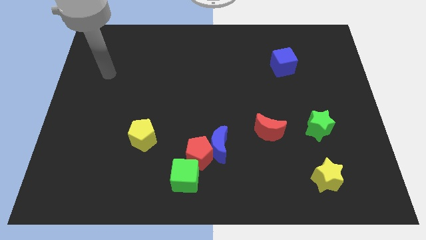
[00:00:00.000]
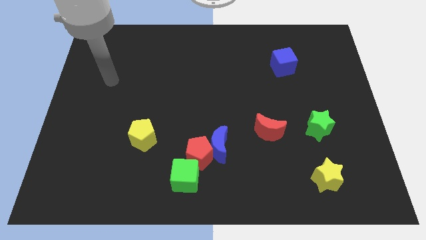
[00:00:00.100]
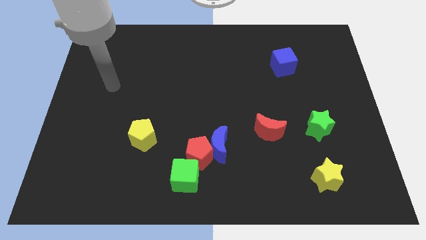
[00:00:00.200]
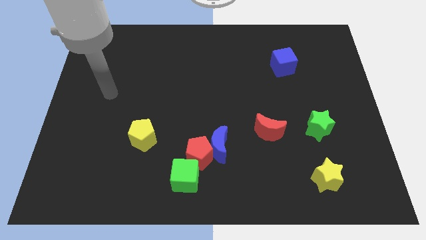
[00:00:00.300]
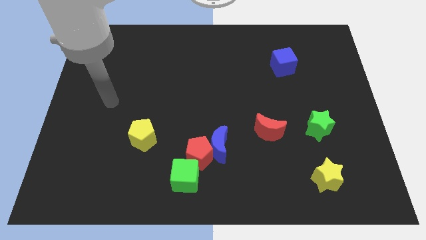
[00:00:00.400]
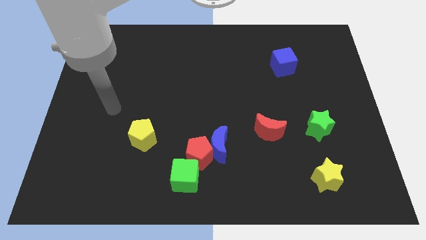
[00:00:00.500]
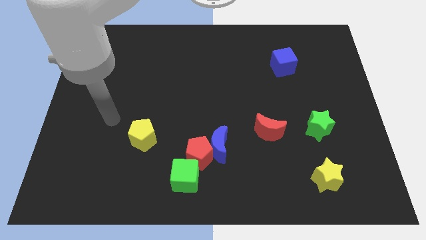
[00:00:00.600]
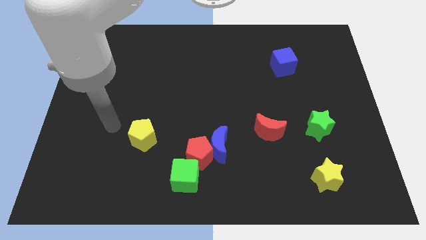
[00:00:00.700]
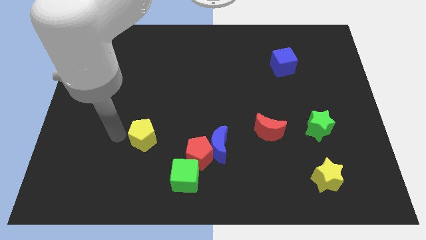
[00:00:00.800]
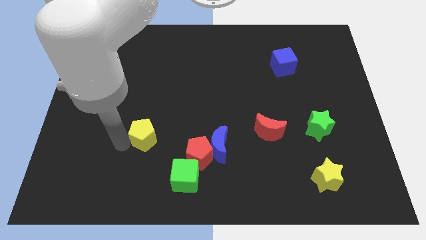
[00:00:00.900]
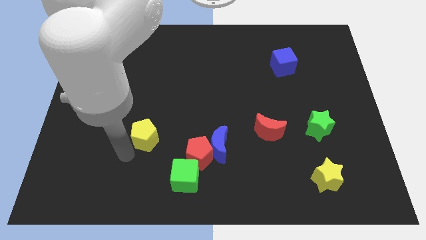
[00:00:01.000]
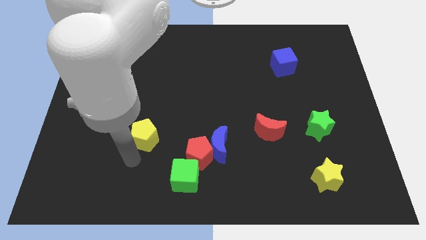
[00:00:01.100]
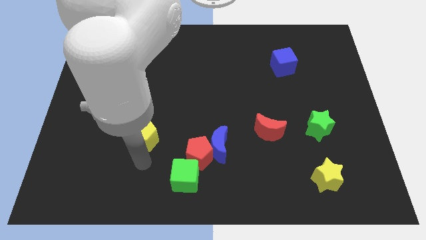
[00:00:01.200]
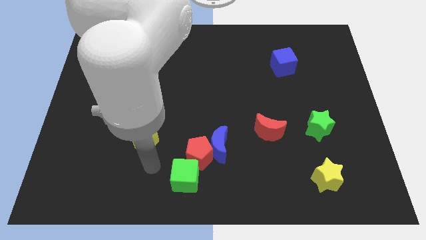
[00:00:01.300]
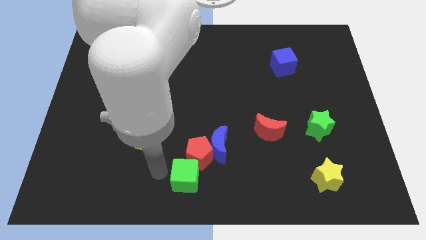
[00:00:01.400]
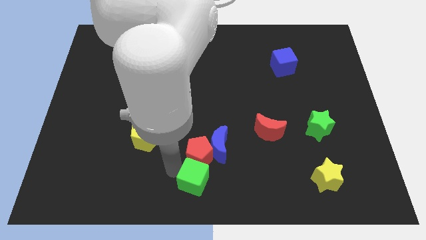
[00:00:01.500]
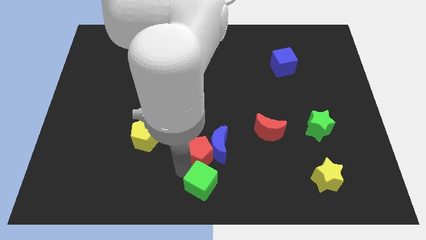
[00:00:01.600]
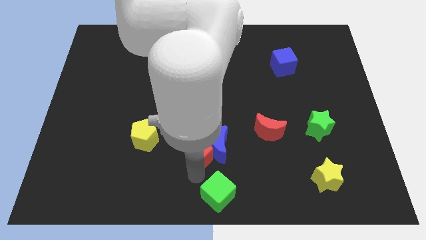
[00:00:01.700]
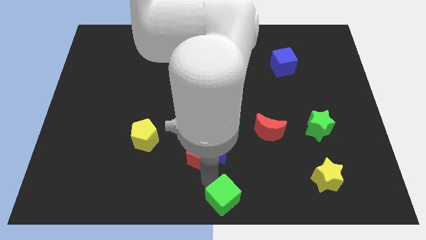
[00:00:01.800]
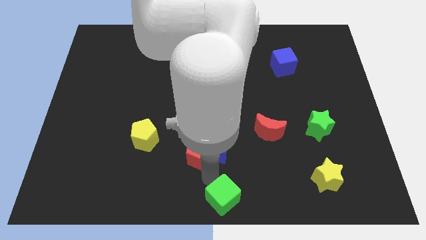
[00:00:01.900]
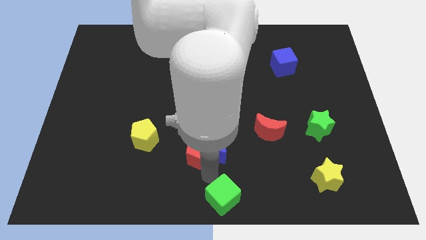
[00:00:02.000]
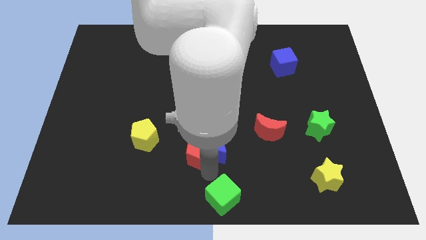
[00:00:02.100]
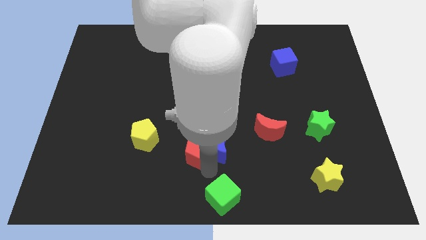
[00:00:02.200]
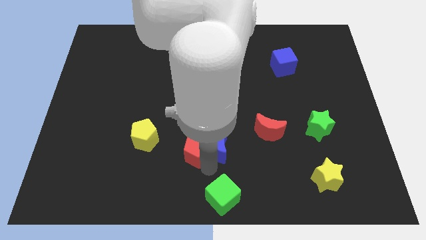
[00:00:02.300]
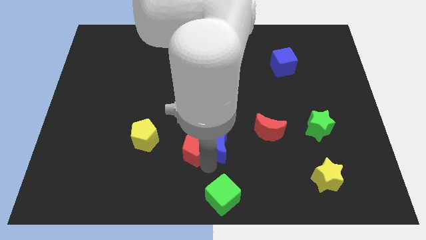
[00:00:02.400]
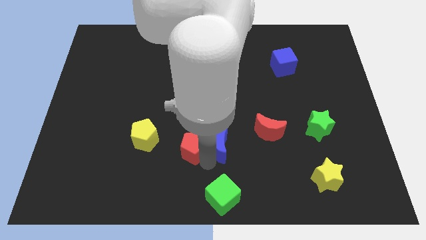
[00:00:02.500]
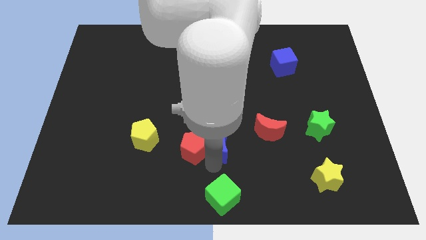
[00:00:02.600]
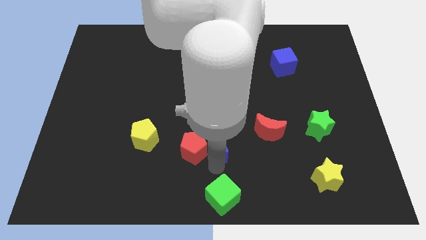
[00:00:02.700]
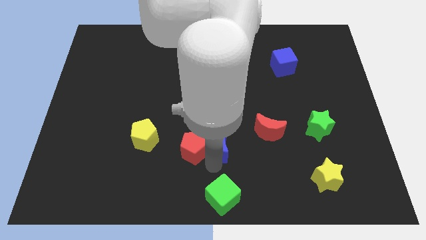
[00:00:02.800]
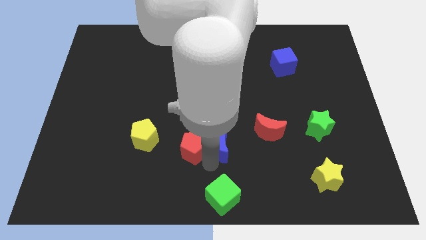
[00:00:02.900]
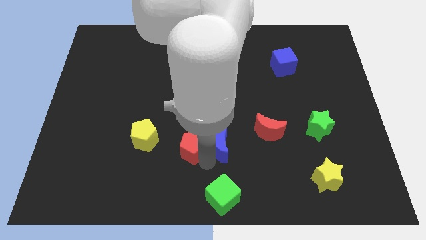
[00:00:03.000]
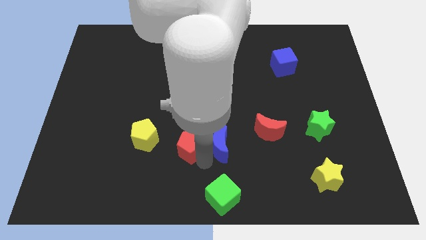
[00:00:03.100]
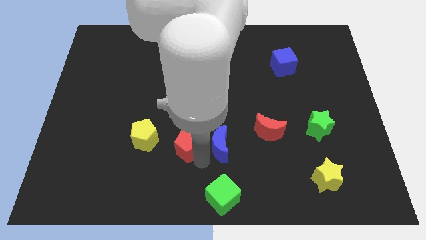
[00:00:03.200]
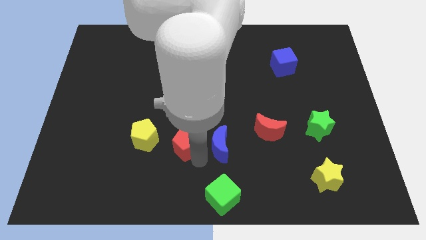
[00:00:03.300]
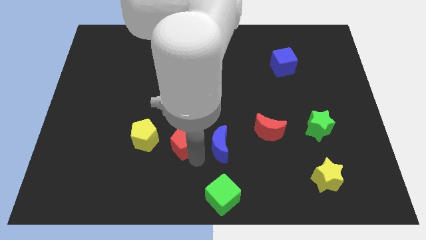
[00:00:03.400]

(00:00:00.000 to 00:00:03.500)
pull the red pentagon apart from the blue moon and green cube

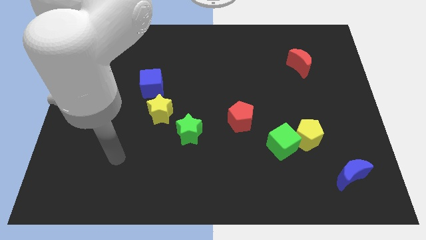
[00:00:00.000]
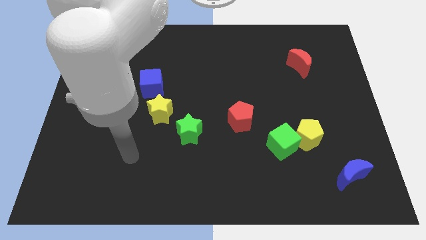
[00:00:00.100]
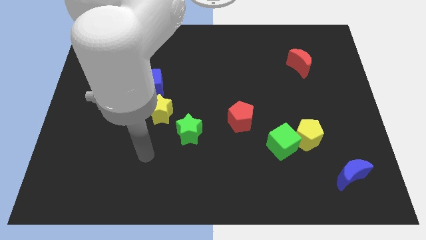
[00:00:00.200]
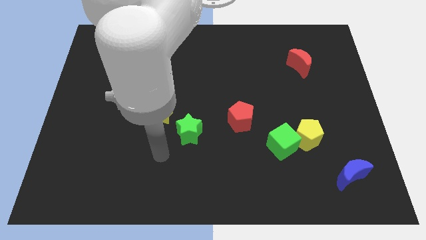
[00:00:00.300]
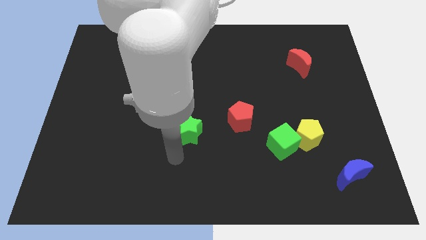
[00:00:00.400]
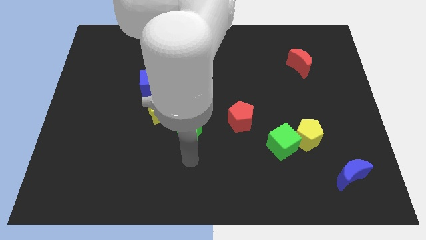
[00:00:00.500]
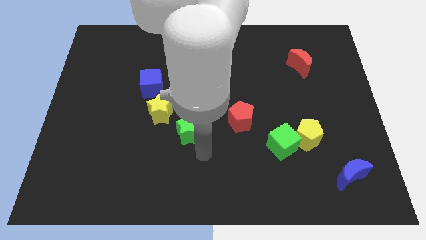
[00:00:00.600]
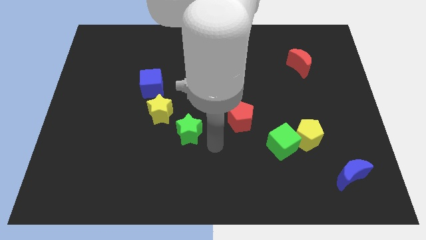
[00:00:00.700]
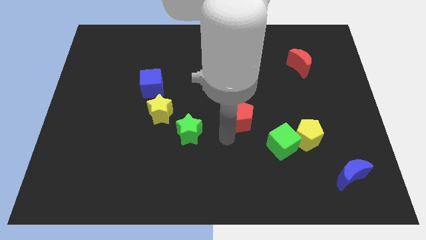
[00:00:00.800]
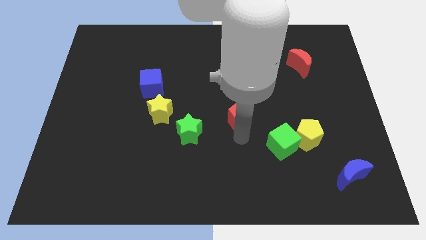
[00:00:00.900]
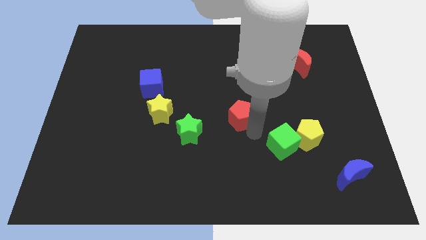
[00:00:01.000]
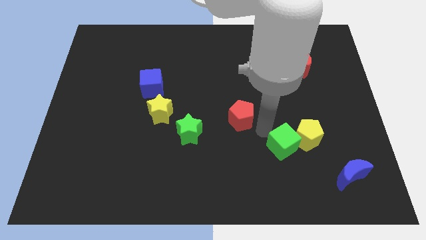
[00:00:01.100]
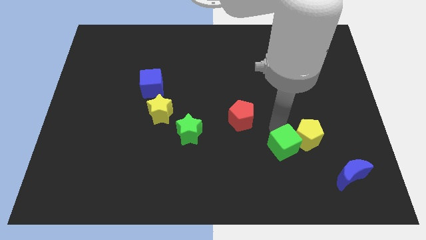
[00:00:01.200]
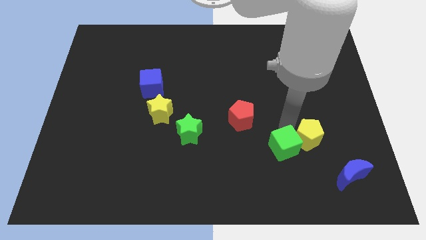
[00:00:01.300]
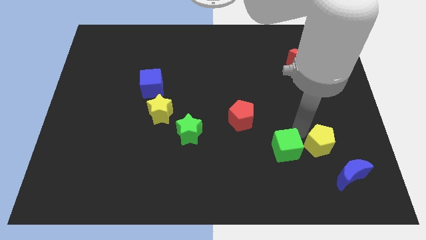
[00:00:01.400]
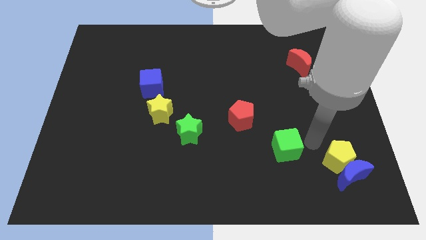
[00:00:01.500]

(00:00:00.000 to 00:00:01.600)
move the green cube away from the yellow pentagon

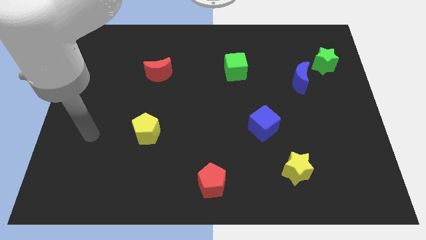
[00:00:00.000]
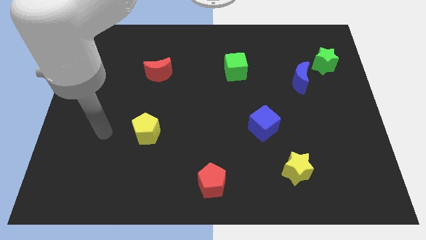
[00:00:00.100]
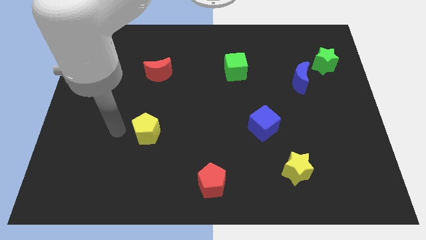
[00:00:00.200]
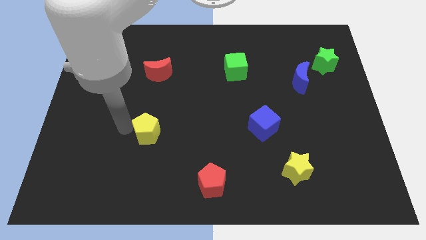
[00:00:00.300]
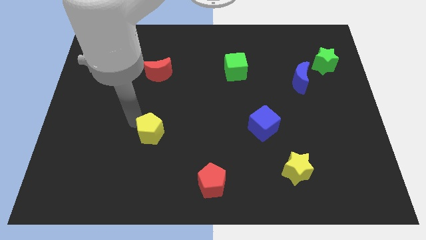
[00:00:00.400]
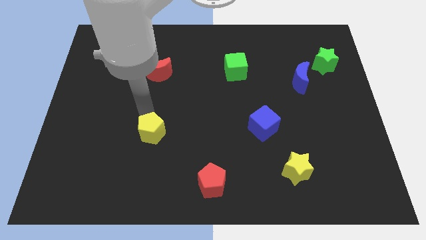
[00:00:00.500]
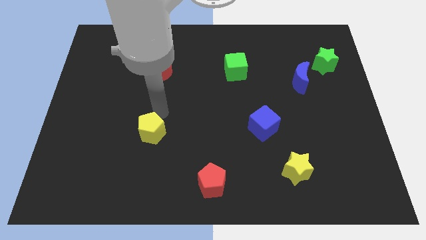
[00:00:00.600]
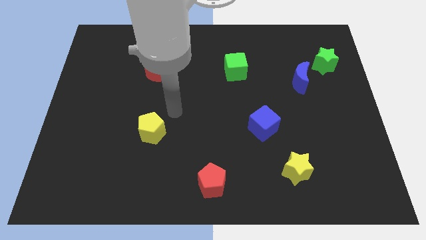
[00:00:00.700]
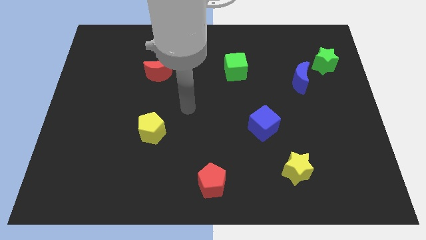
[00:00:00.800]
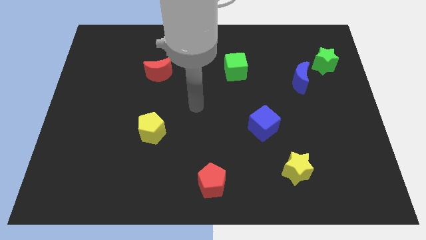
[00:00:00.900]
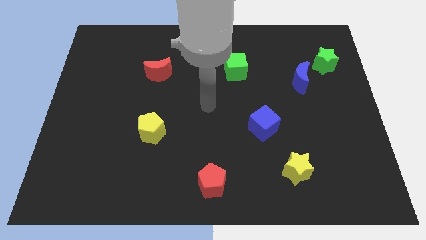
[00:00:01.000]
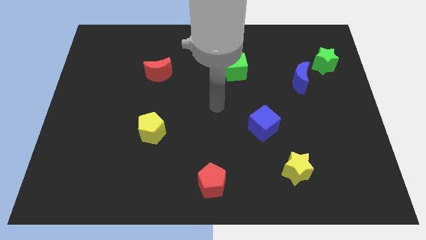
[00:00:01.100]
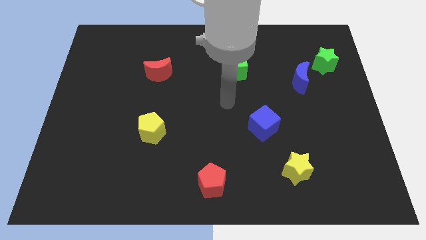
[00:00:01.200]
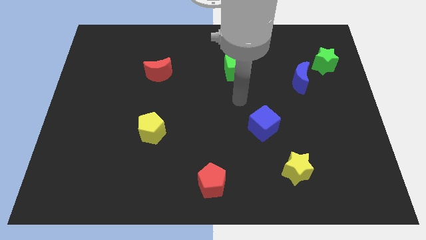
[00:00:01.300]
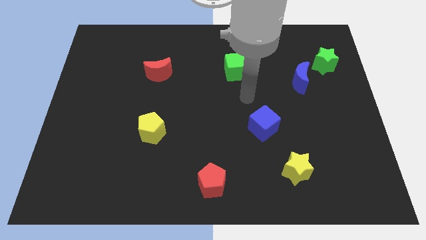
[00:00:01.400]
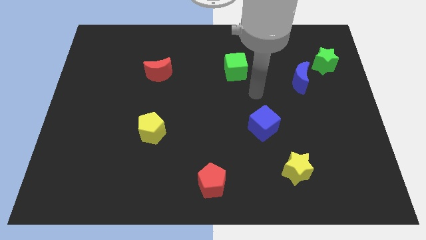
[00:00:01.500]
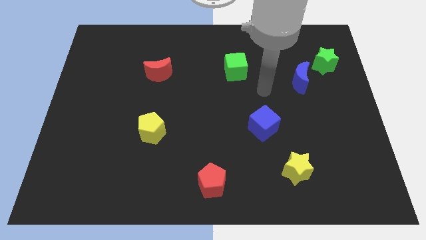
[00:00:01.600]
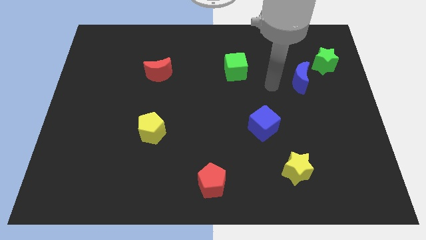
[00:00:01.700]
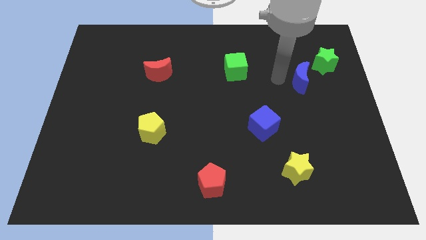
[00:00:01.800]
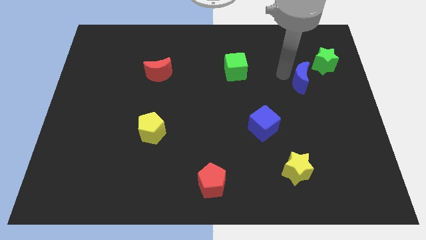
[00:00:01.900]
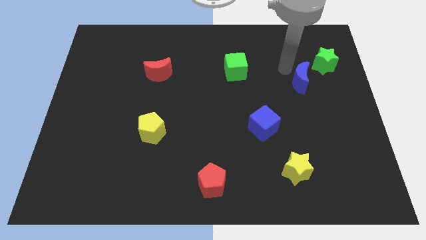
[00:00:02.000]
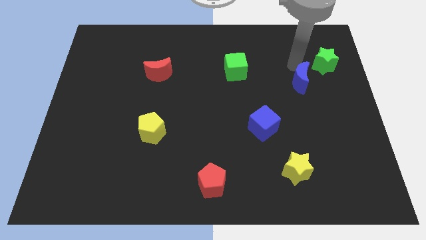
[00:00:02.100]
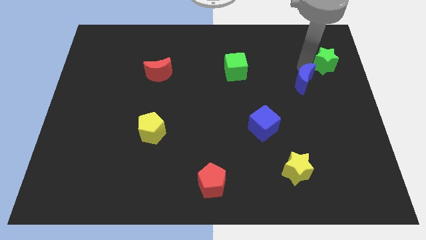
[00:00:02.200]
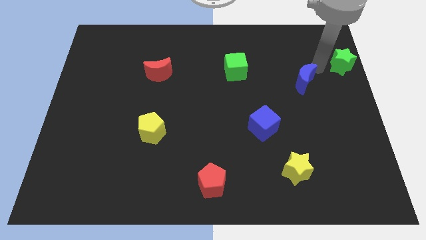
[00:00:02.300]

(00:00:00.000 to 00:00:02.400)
move the blue moon away from the green star

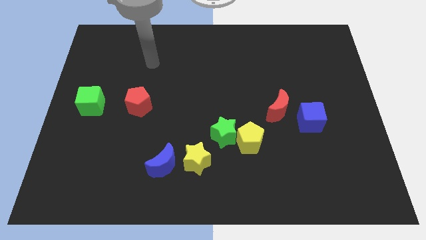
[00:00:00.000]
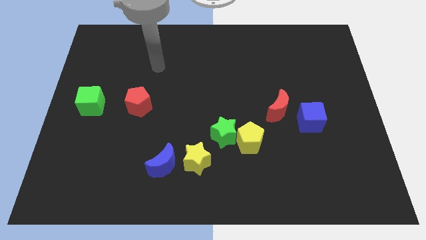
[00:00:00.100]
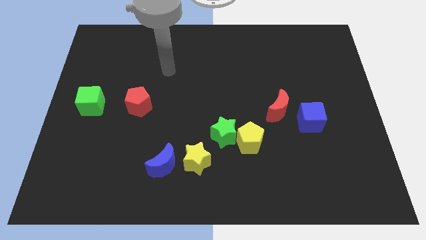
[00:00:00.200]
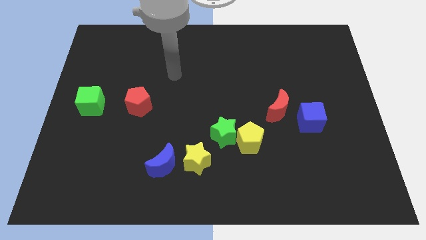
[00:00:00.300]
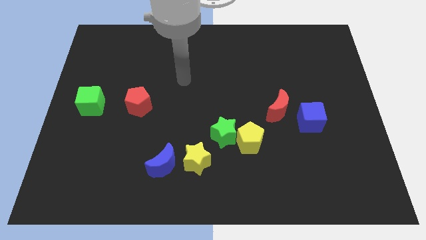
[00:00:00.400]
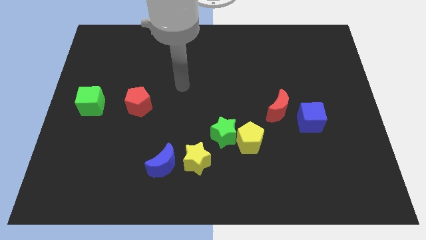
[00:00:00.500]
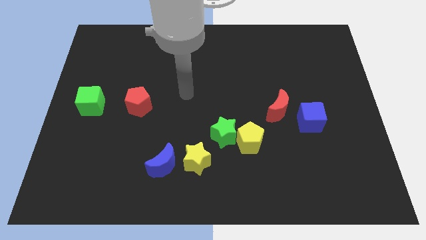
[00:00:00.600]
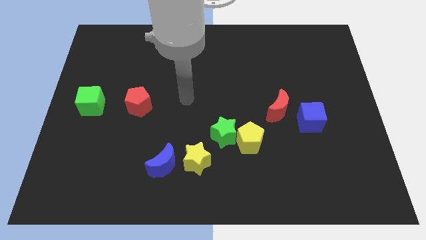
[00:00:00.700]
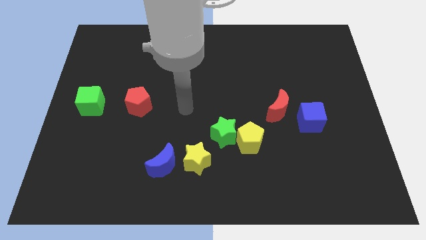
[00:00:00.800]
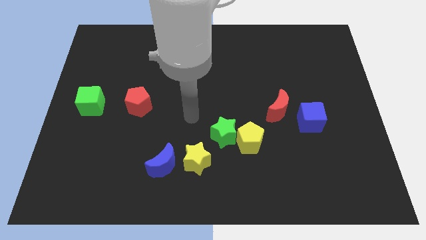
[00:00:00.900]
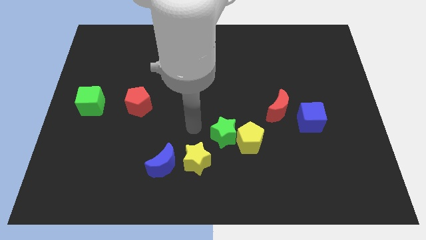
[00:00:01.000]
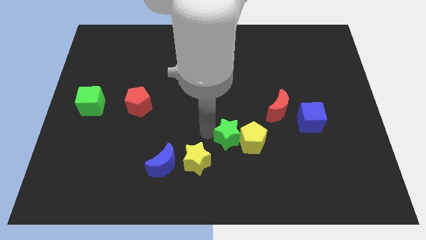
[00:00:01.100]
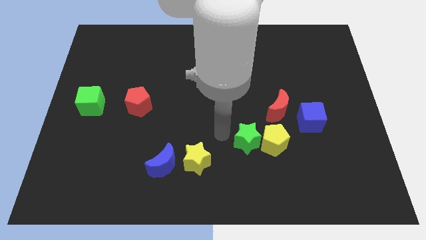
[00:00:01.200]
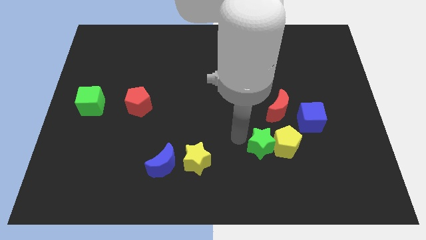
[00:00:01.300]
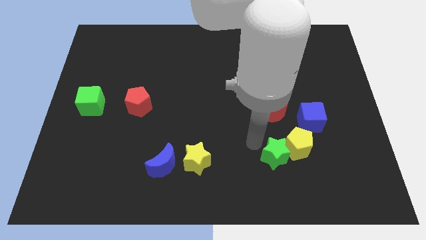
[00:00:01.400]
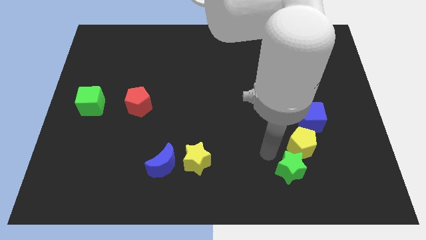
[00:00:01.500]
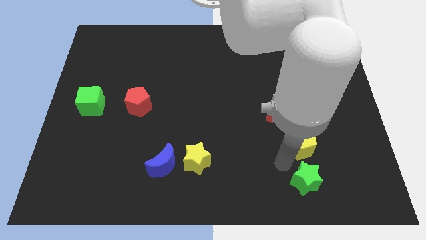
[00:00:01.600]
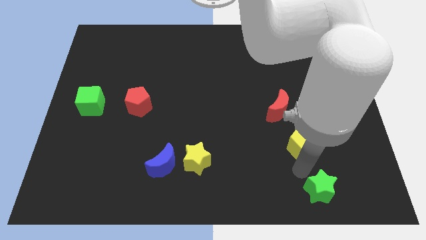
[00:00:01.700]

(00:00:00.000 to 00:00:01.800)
separate the yellow pentagon from the green star
